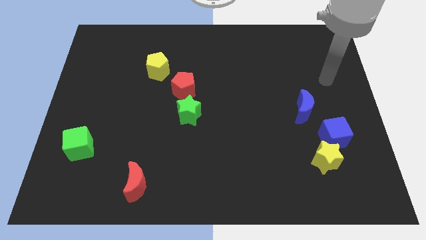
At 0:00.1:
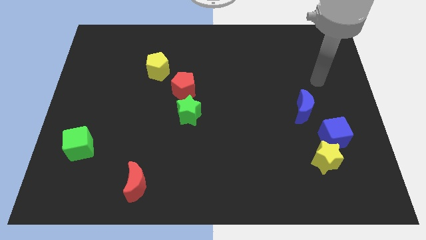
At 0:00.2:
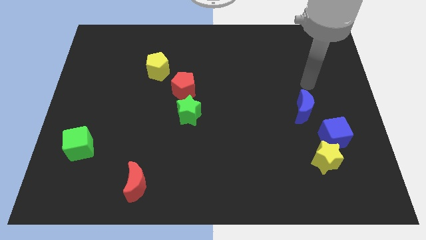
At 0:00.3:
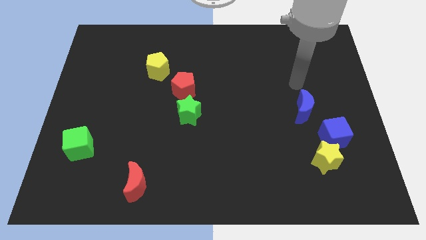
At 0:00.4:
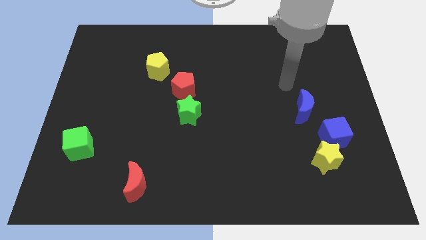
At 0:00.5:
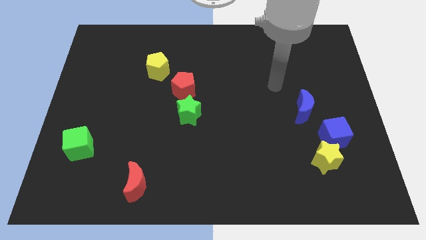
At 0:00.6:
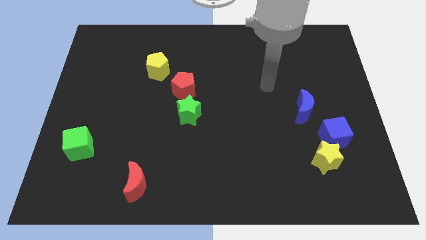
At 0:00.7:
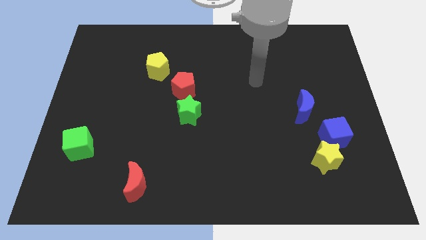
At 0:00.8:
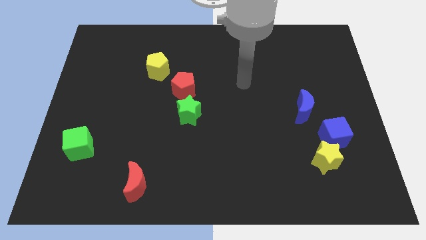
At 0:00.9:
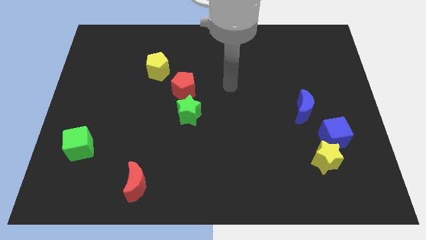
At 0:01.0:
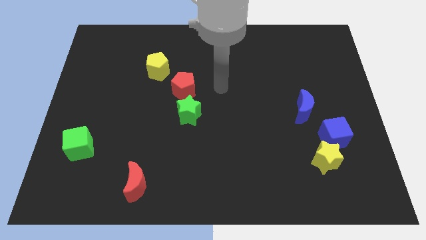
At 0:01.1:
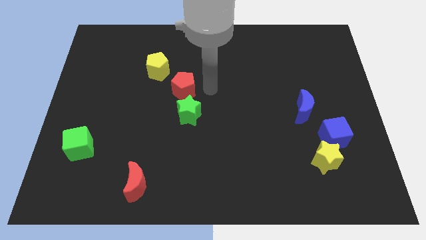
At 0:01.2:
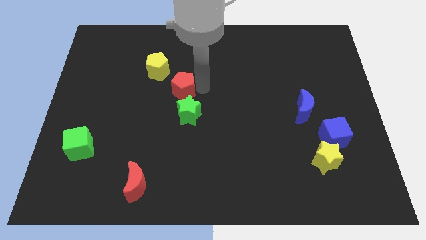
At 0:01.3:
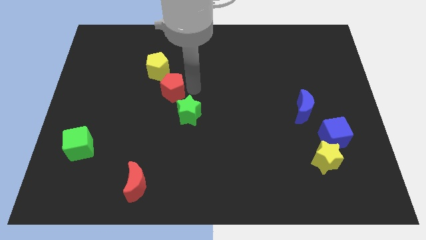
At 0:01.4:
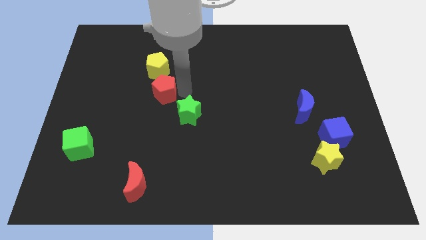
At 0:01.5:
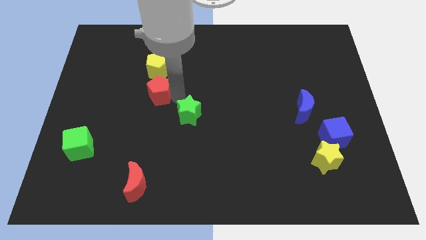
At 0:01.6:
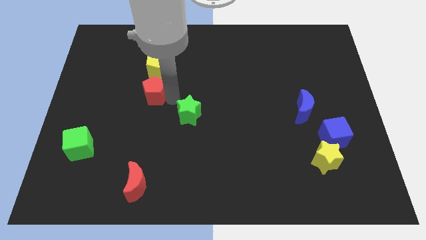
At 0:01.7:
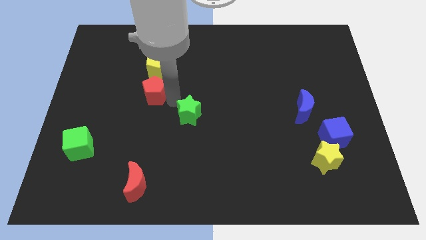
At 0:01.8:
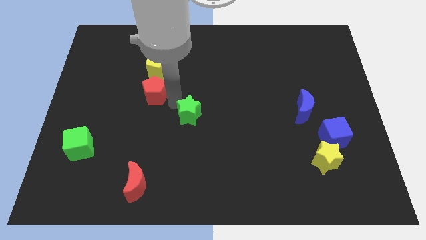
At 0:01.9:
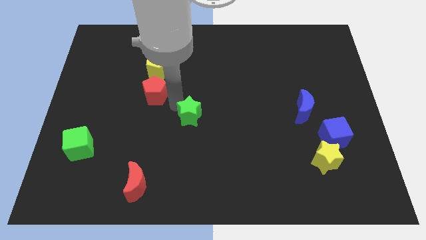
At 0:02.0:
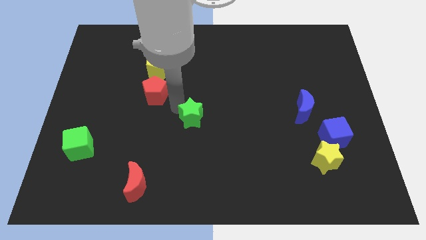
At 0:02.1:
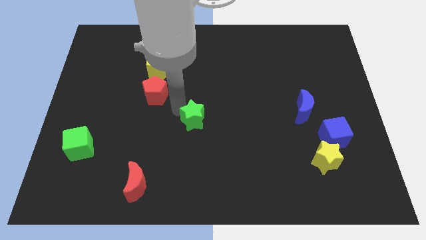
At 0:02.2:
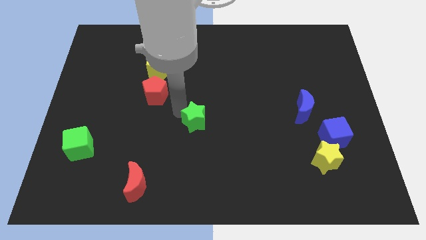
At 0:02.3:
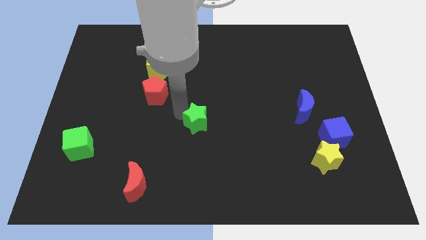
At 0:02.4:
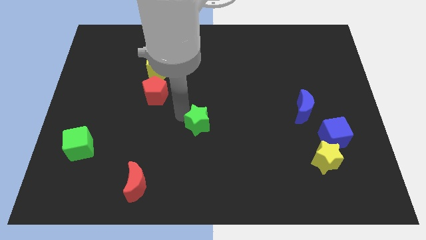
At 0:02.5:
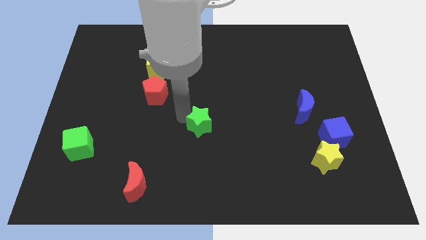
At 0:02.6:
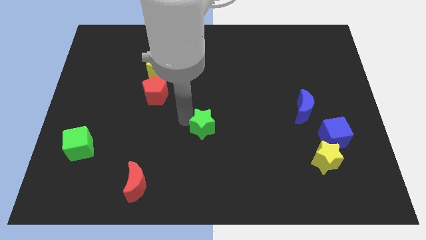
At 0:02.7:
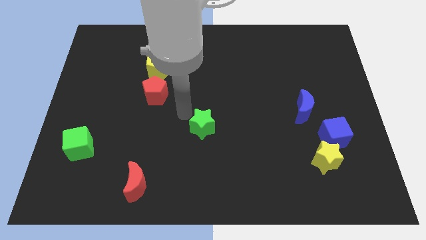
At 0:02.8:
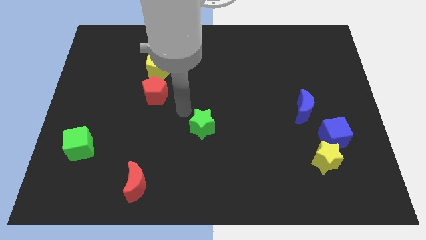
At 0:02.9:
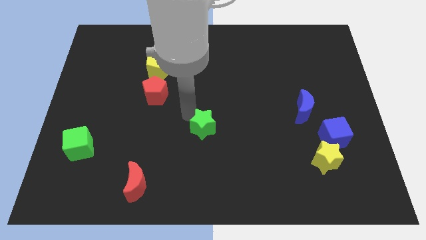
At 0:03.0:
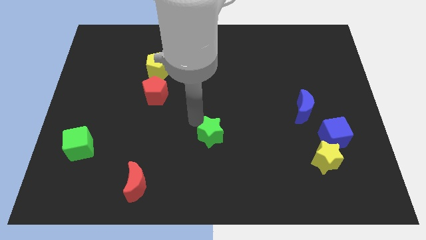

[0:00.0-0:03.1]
move the green star somewhat downwards and to the right

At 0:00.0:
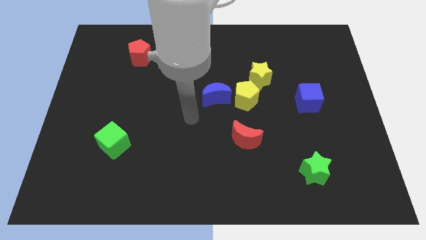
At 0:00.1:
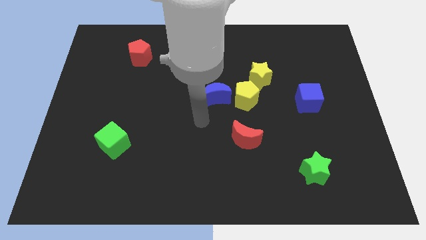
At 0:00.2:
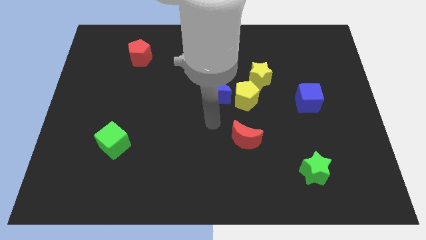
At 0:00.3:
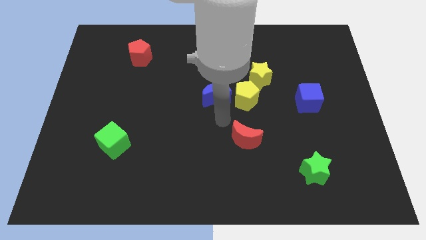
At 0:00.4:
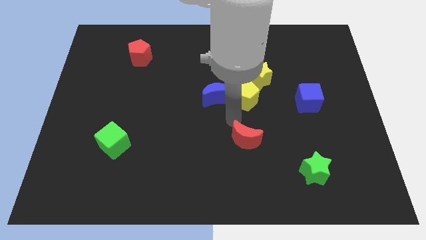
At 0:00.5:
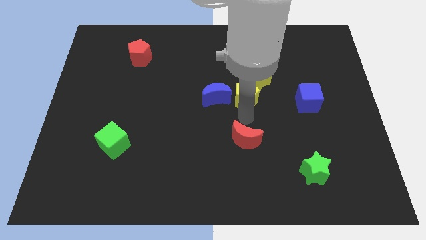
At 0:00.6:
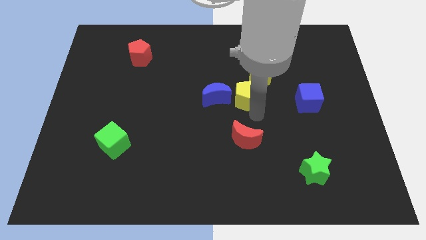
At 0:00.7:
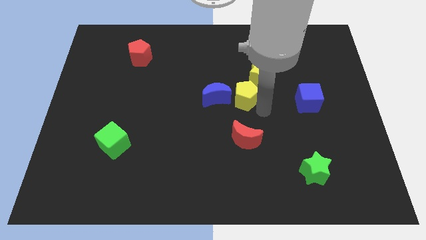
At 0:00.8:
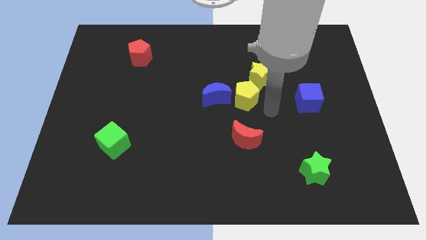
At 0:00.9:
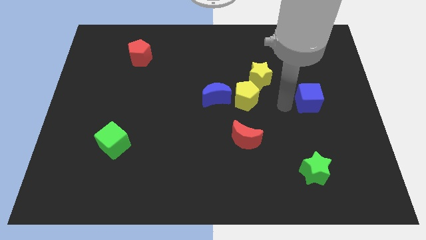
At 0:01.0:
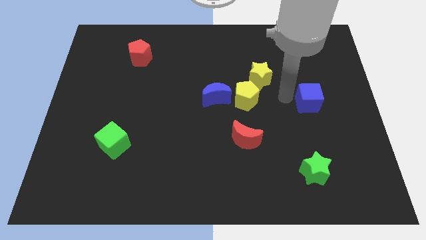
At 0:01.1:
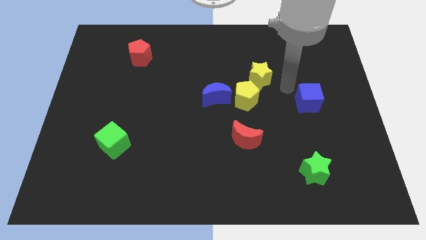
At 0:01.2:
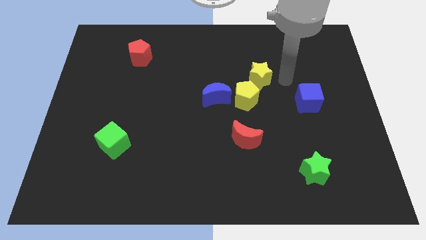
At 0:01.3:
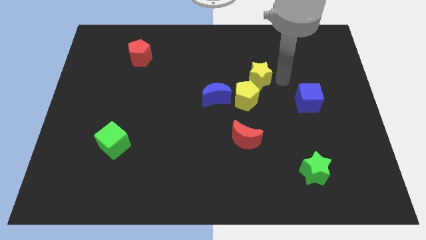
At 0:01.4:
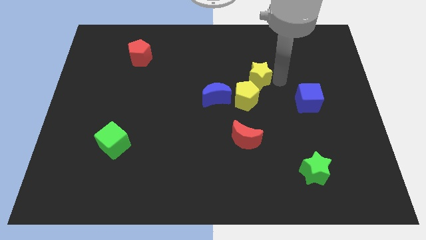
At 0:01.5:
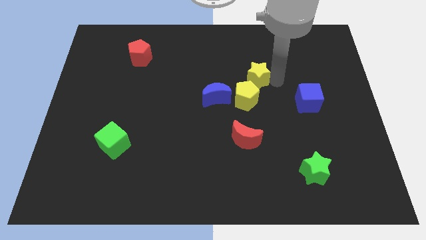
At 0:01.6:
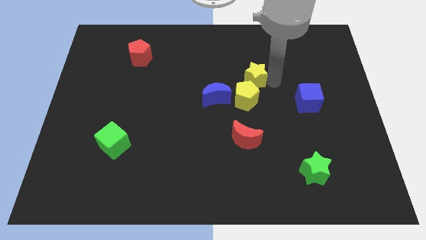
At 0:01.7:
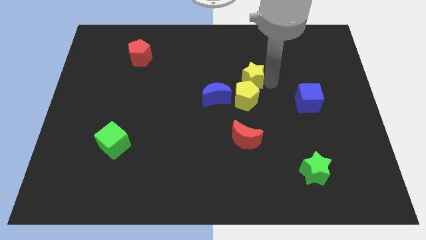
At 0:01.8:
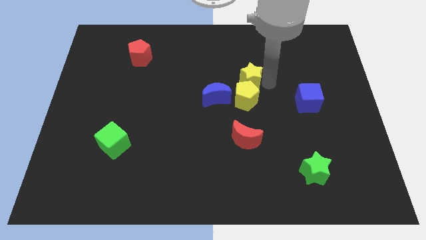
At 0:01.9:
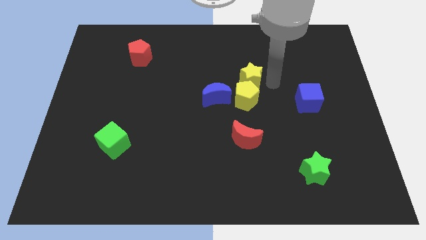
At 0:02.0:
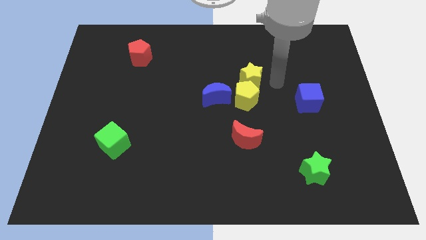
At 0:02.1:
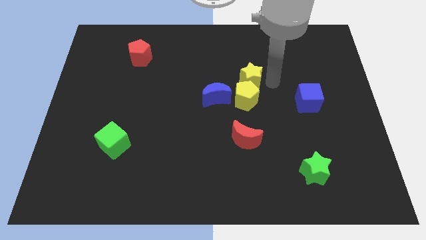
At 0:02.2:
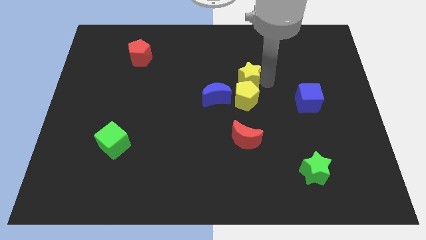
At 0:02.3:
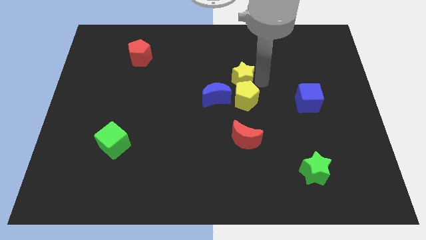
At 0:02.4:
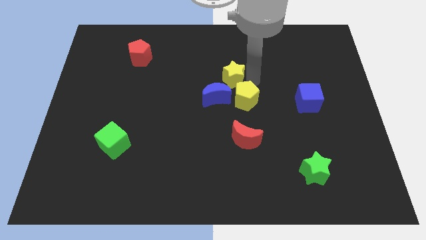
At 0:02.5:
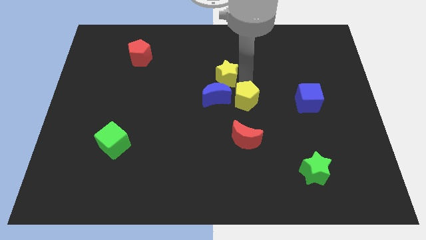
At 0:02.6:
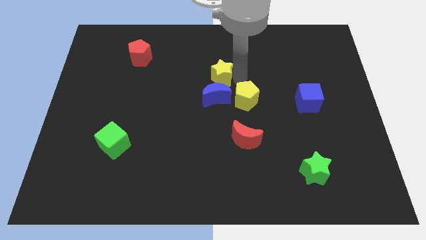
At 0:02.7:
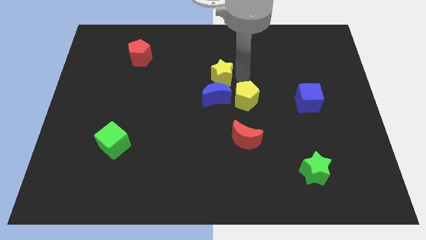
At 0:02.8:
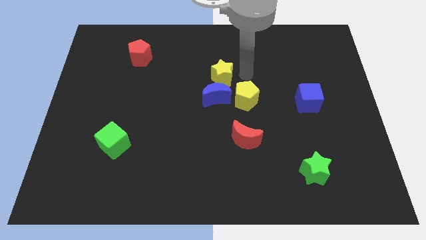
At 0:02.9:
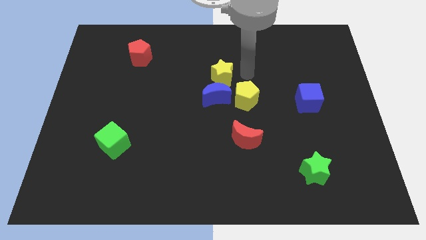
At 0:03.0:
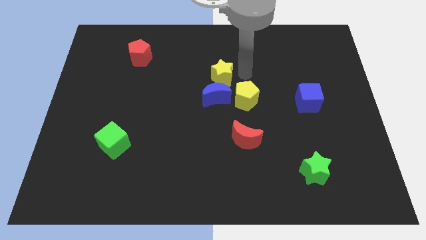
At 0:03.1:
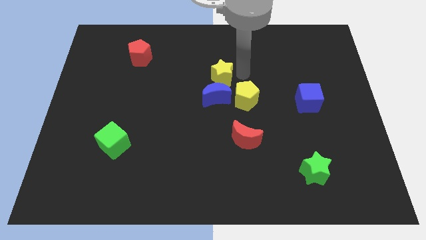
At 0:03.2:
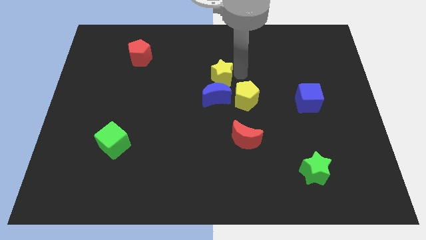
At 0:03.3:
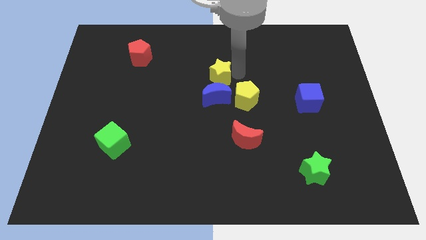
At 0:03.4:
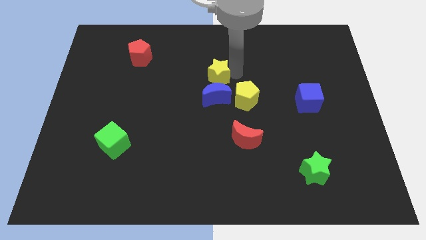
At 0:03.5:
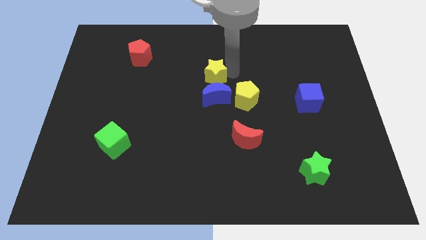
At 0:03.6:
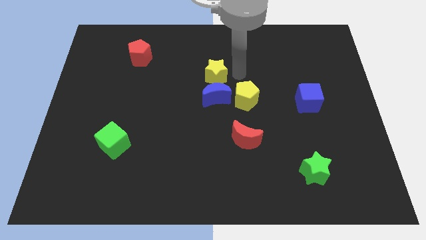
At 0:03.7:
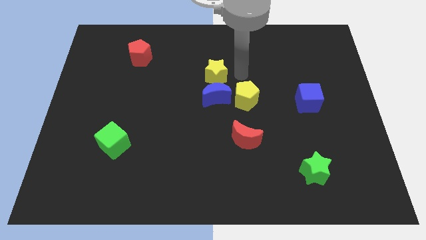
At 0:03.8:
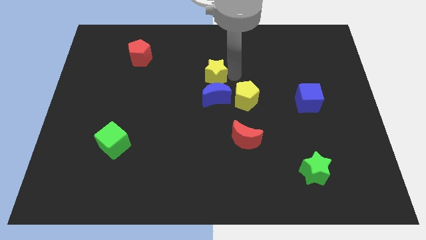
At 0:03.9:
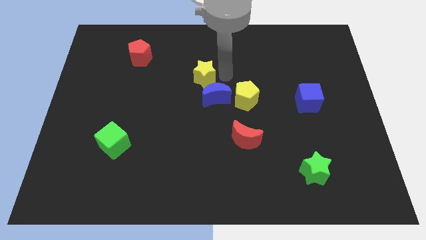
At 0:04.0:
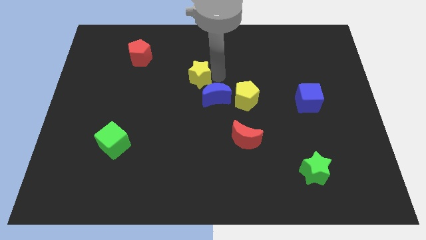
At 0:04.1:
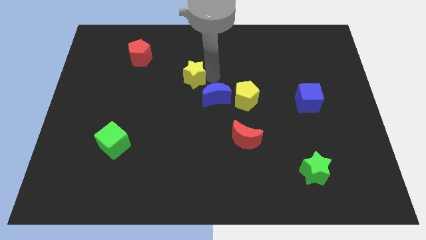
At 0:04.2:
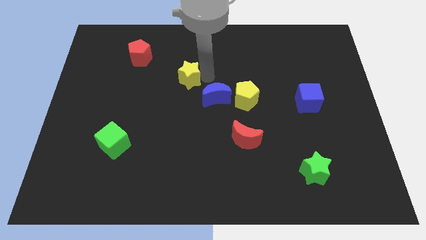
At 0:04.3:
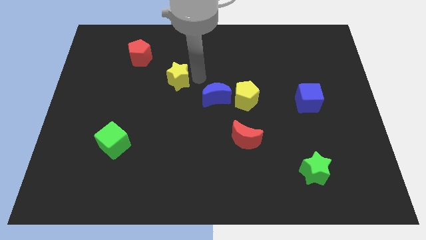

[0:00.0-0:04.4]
slide the yellow star to the left

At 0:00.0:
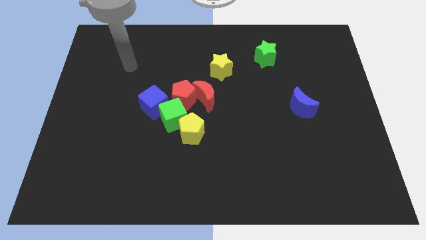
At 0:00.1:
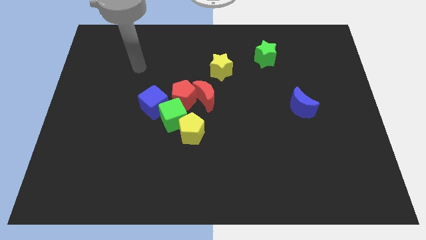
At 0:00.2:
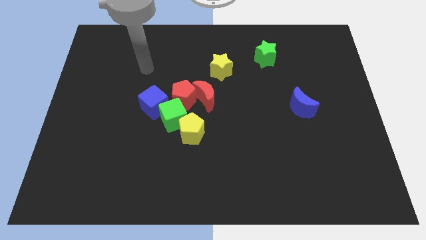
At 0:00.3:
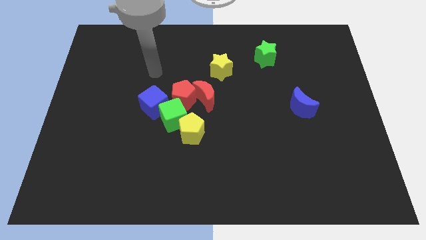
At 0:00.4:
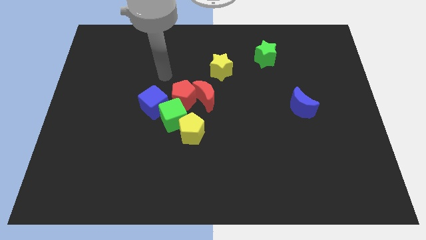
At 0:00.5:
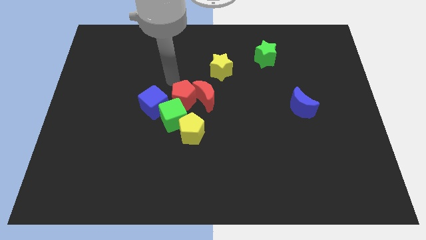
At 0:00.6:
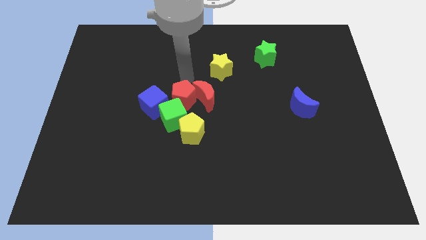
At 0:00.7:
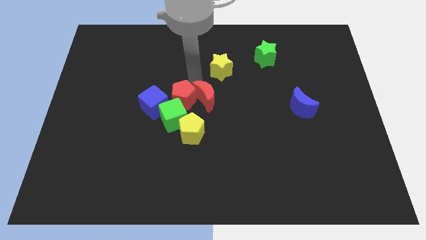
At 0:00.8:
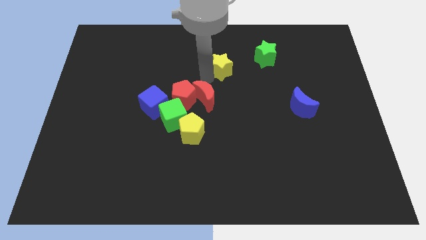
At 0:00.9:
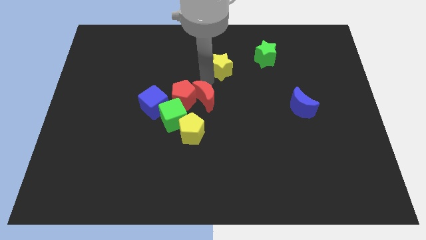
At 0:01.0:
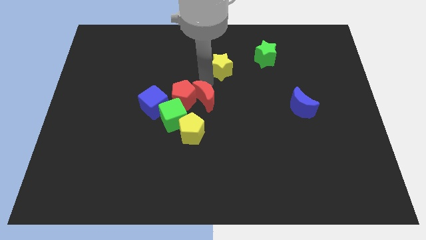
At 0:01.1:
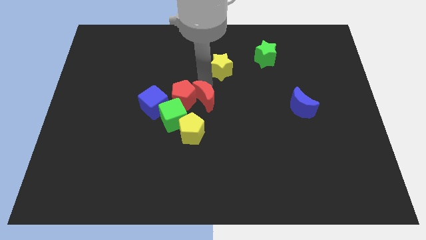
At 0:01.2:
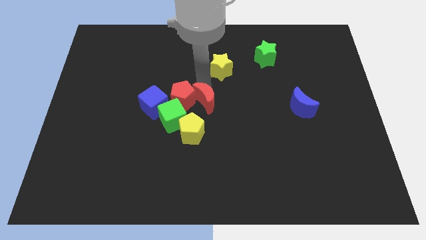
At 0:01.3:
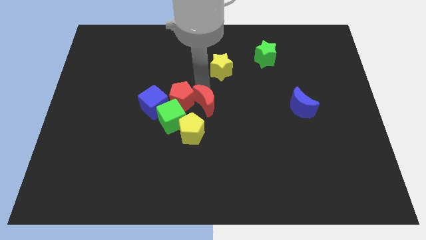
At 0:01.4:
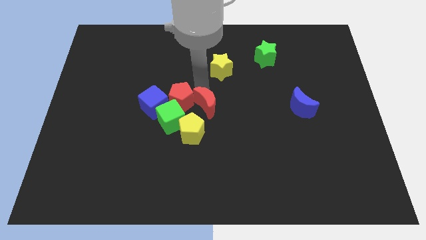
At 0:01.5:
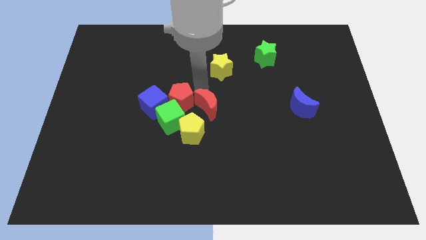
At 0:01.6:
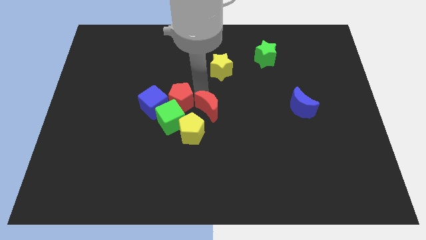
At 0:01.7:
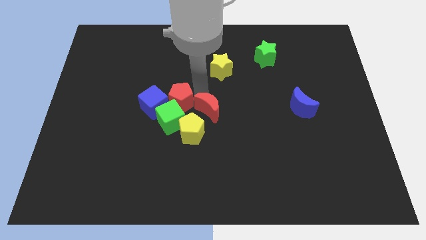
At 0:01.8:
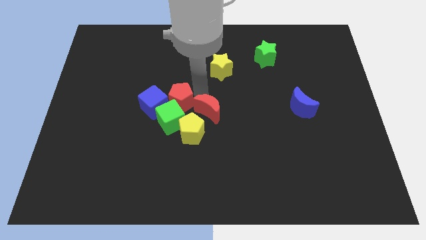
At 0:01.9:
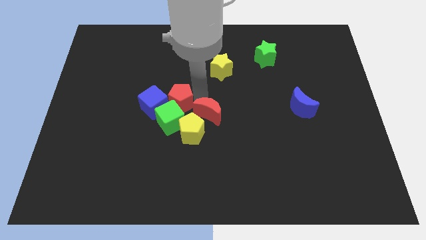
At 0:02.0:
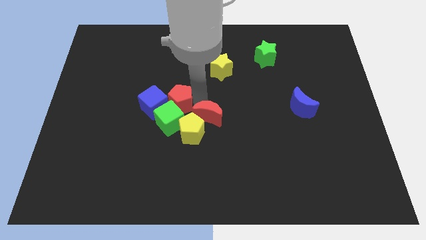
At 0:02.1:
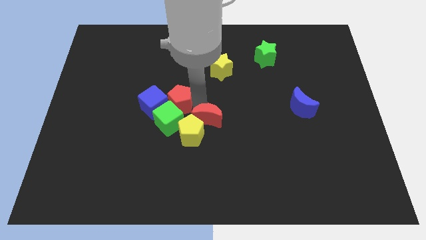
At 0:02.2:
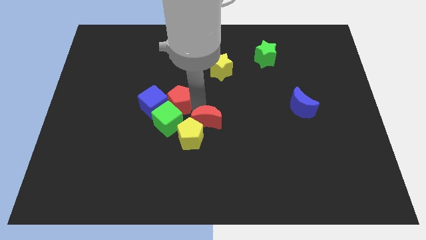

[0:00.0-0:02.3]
push the red moon down somewhat